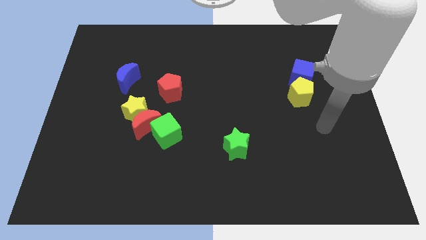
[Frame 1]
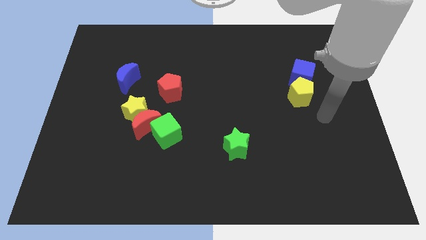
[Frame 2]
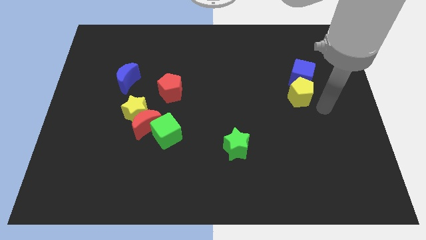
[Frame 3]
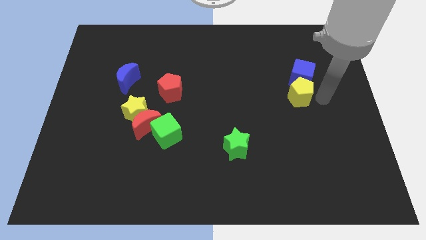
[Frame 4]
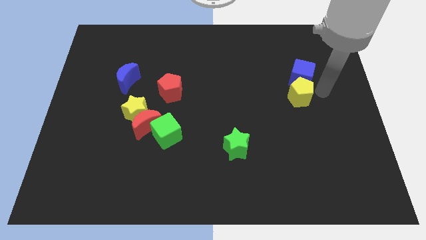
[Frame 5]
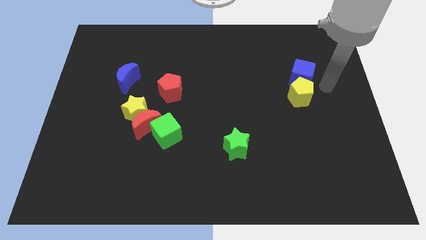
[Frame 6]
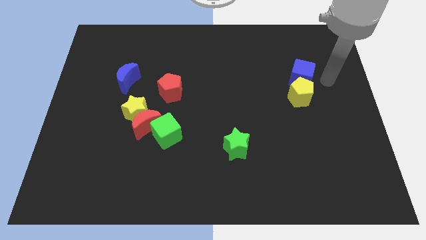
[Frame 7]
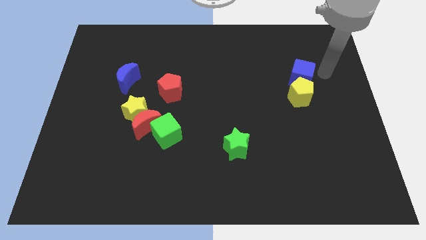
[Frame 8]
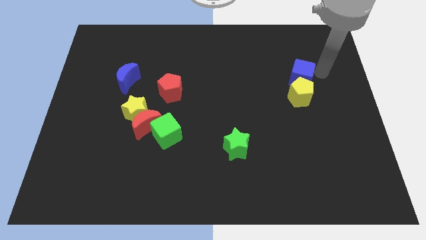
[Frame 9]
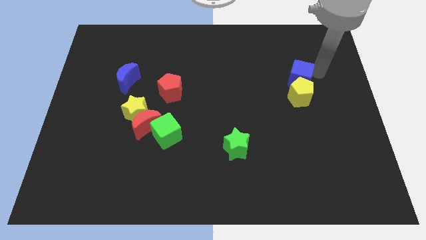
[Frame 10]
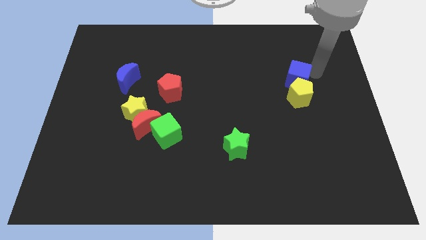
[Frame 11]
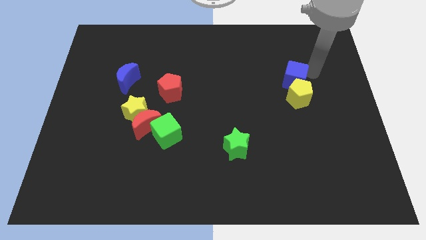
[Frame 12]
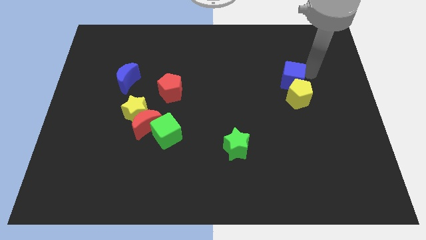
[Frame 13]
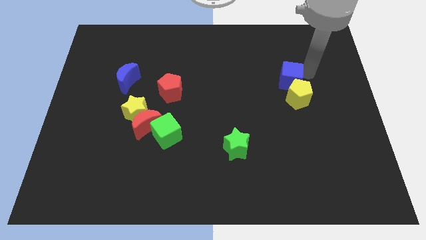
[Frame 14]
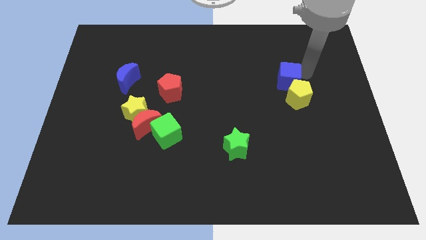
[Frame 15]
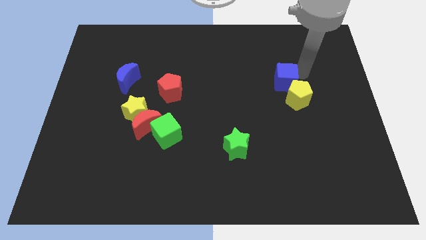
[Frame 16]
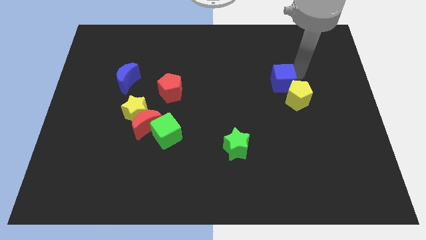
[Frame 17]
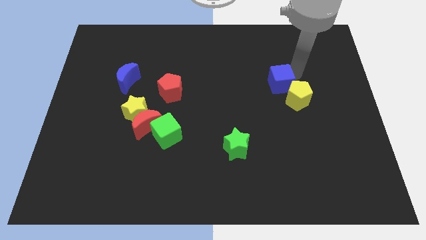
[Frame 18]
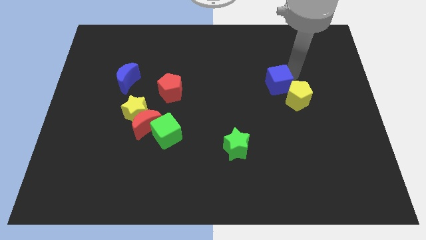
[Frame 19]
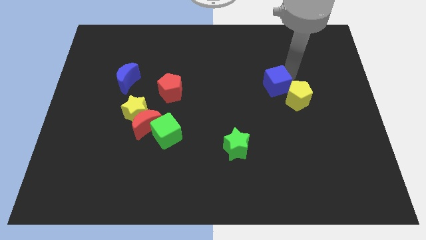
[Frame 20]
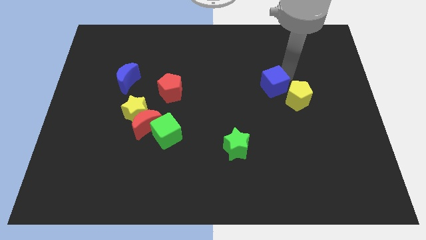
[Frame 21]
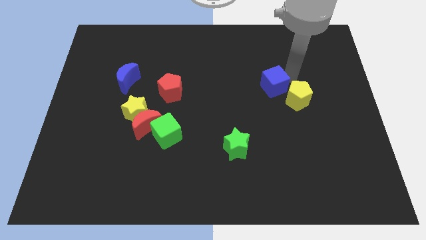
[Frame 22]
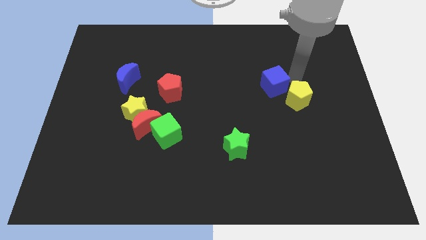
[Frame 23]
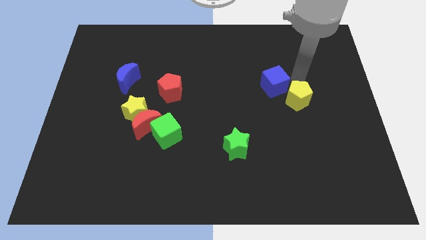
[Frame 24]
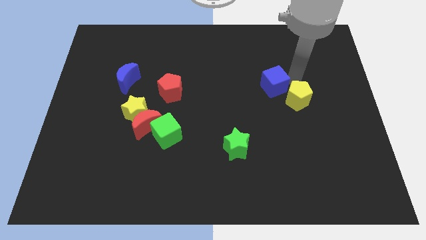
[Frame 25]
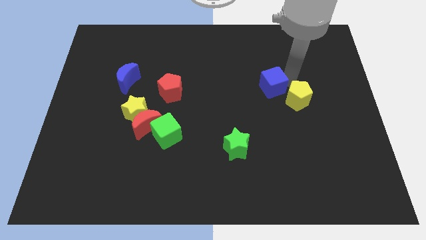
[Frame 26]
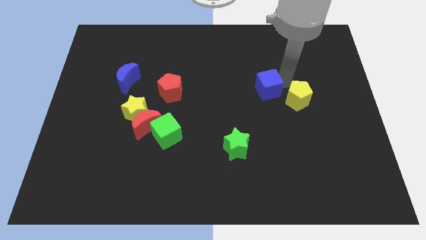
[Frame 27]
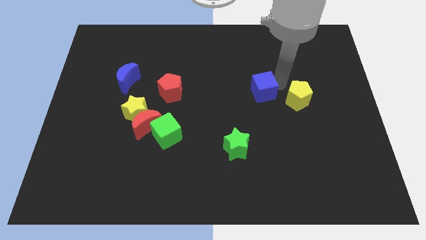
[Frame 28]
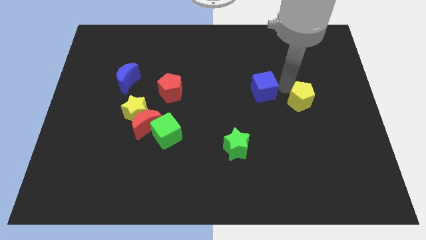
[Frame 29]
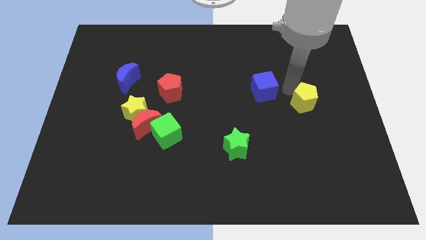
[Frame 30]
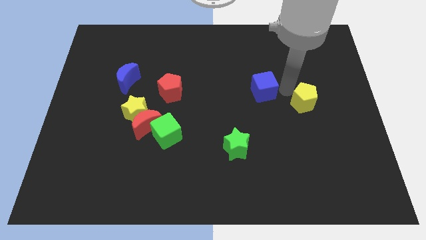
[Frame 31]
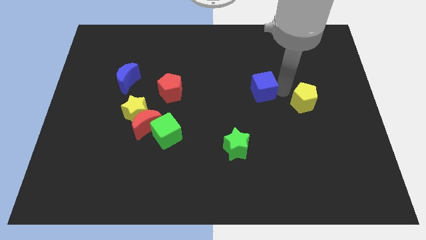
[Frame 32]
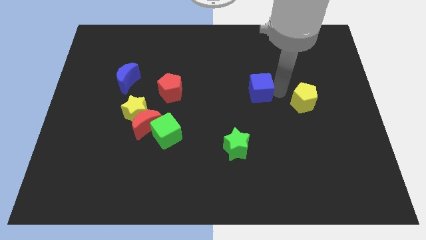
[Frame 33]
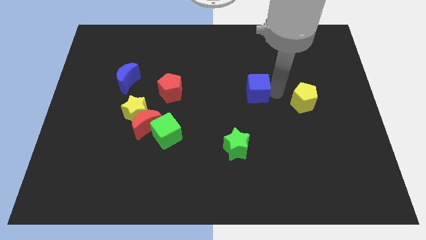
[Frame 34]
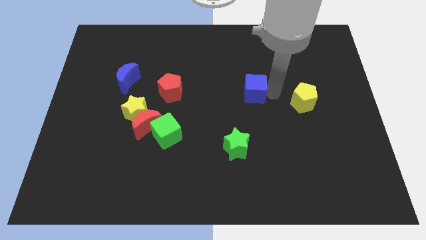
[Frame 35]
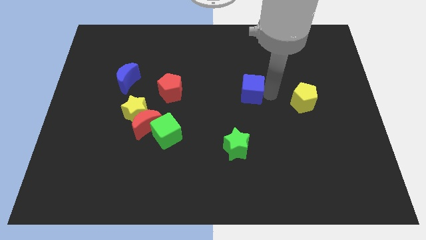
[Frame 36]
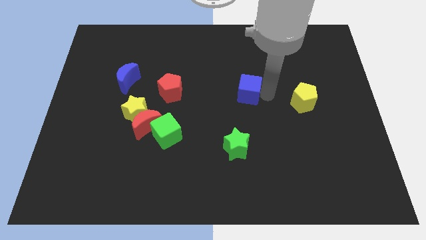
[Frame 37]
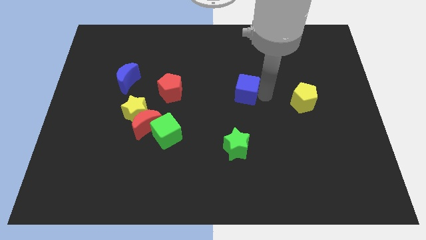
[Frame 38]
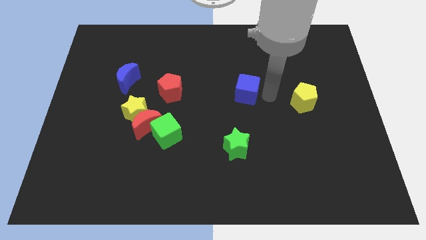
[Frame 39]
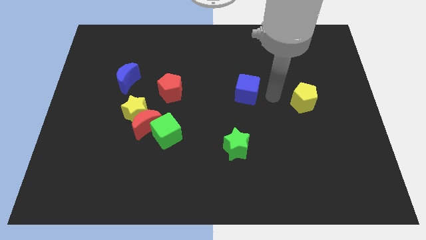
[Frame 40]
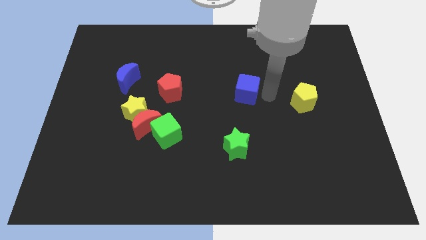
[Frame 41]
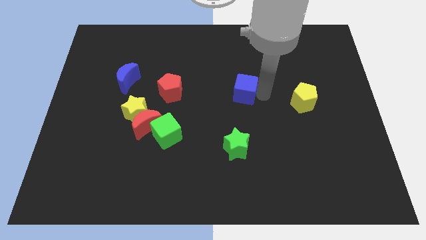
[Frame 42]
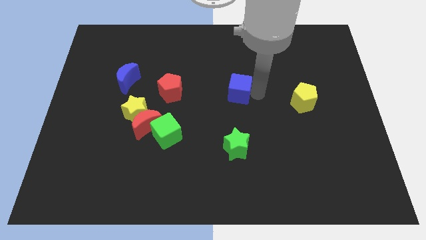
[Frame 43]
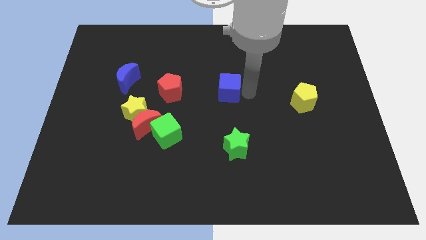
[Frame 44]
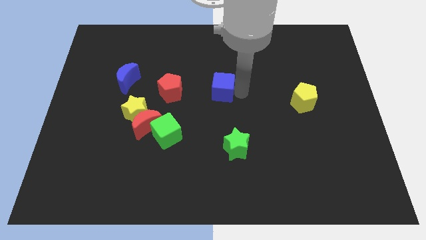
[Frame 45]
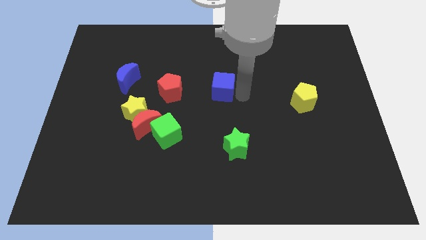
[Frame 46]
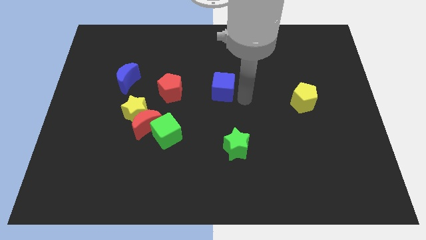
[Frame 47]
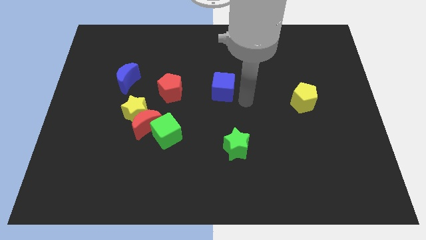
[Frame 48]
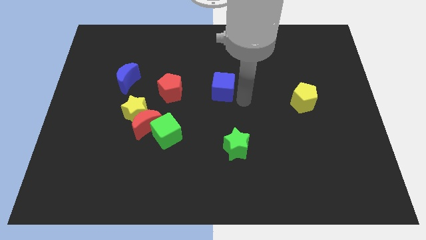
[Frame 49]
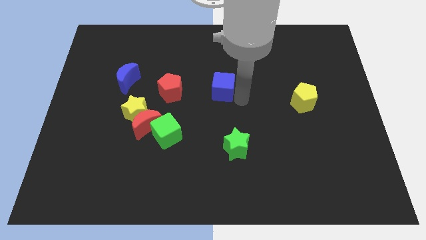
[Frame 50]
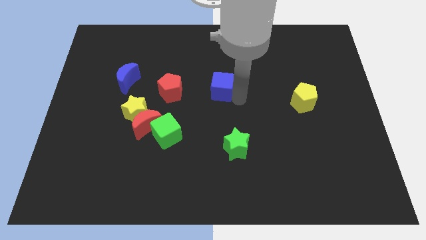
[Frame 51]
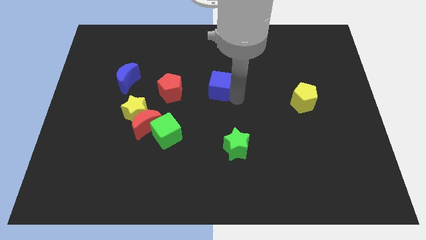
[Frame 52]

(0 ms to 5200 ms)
push the blue cube to the left

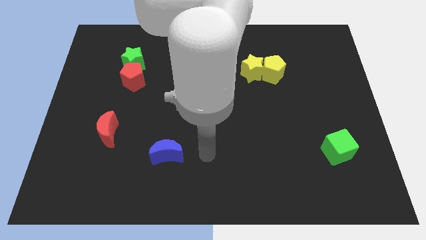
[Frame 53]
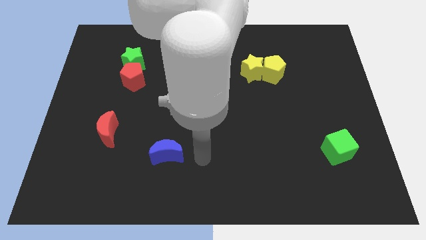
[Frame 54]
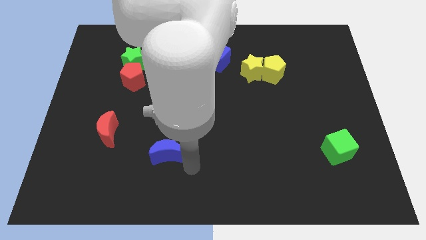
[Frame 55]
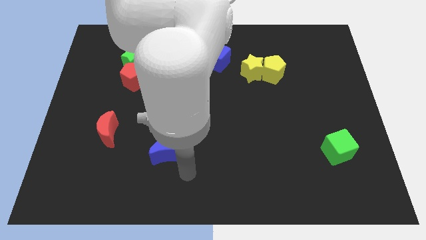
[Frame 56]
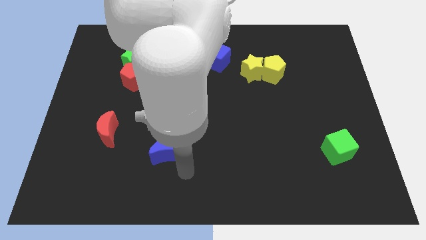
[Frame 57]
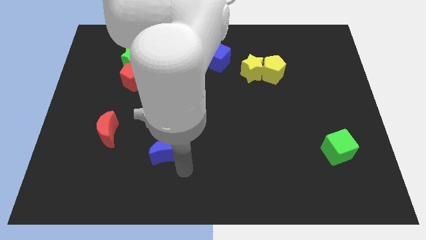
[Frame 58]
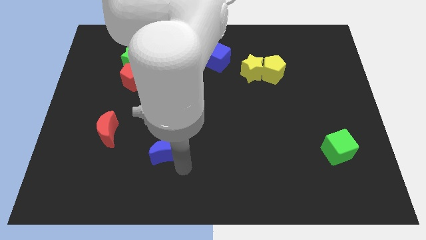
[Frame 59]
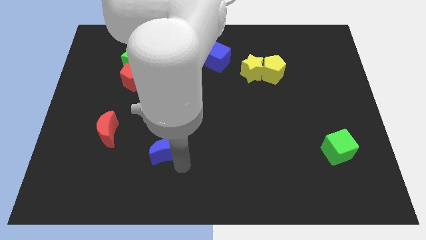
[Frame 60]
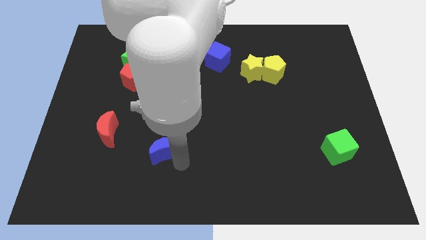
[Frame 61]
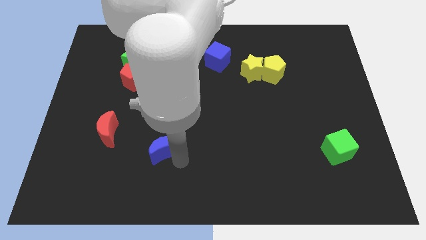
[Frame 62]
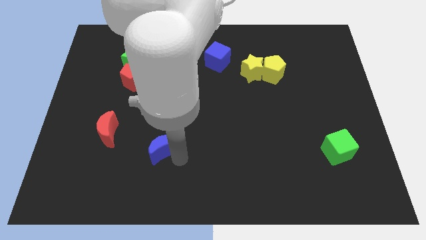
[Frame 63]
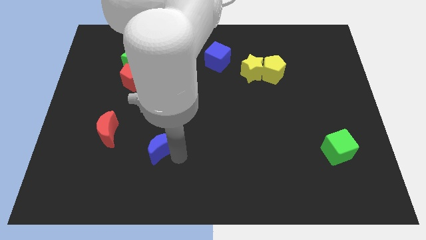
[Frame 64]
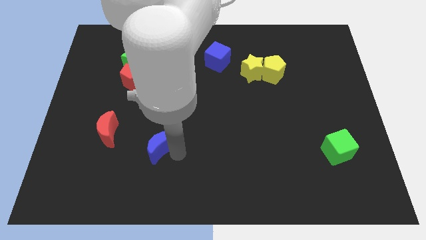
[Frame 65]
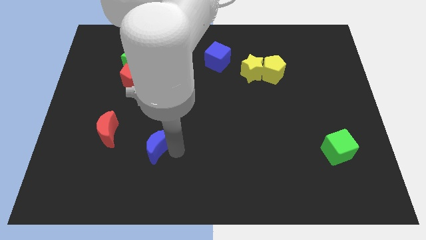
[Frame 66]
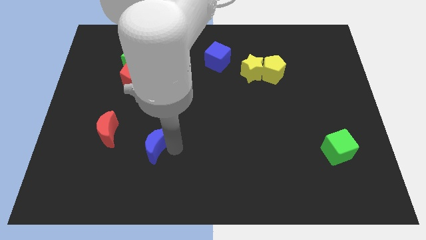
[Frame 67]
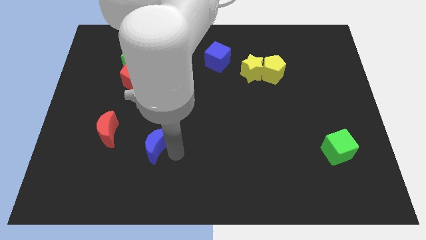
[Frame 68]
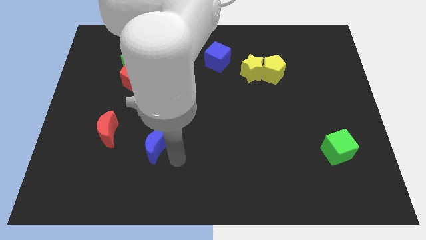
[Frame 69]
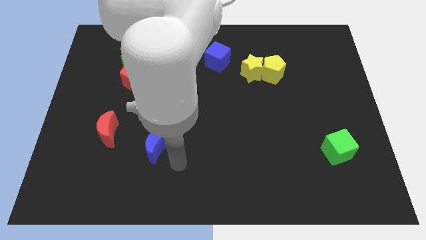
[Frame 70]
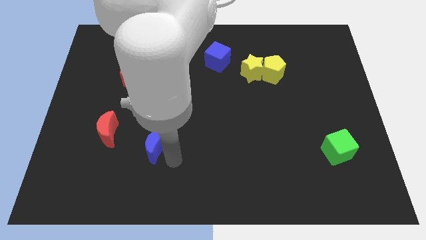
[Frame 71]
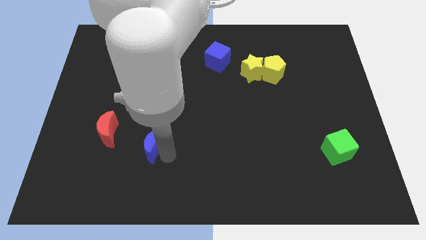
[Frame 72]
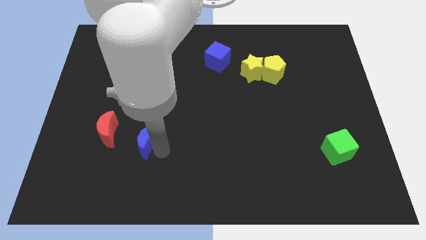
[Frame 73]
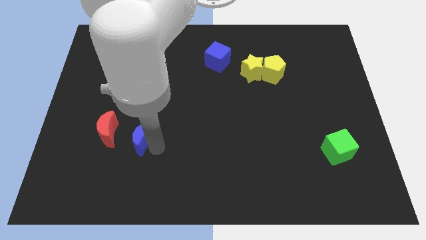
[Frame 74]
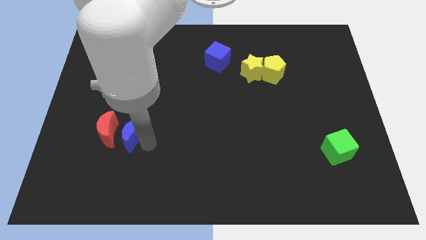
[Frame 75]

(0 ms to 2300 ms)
move the blue moon up and then left a little

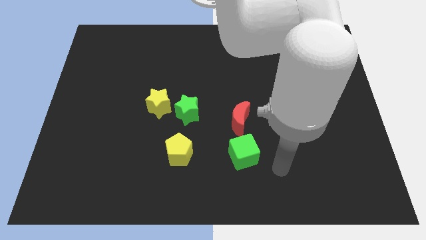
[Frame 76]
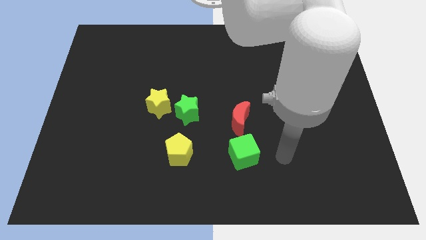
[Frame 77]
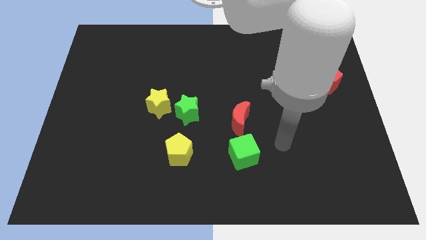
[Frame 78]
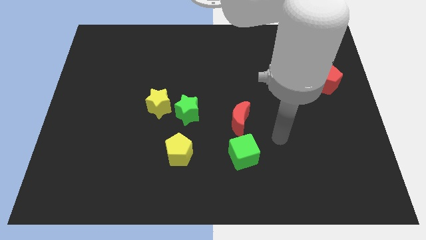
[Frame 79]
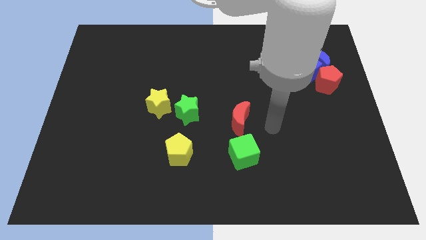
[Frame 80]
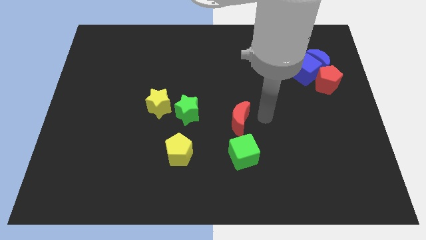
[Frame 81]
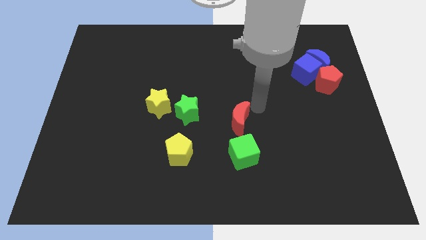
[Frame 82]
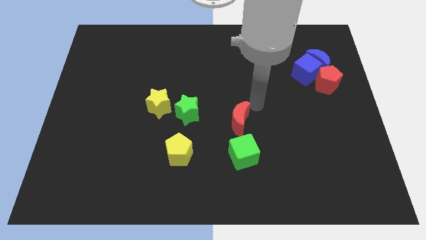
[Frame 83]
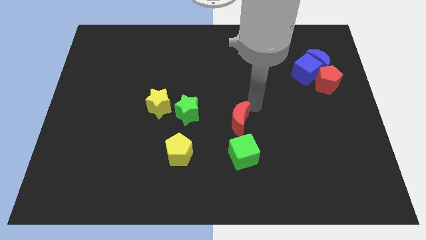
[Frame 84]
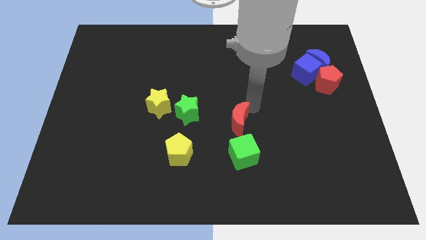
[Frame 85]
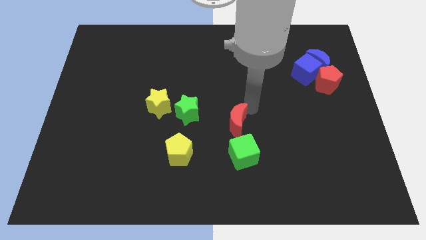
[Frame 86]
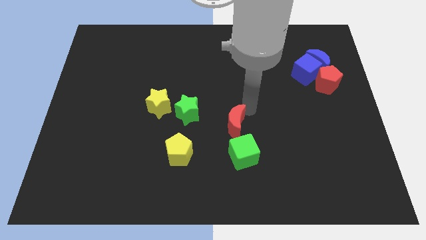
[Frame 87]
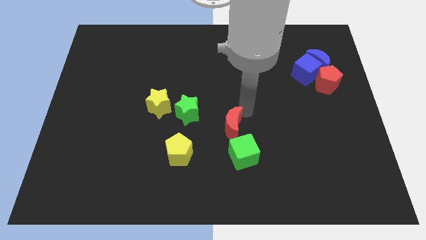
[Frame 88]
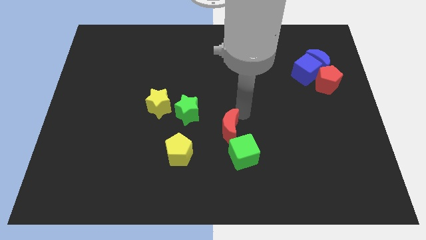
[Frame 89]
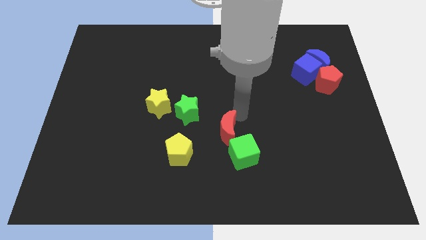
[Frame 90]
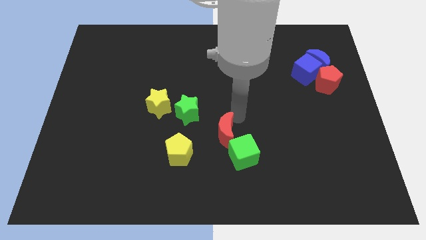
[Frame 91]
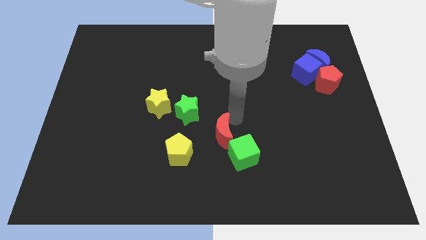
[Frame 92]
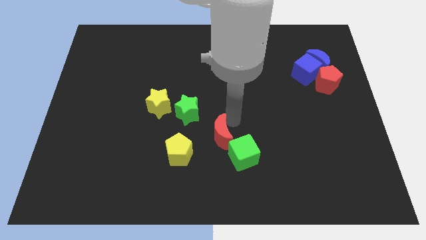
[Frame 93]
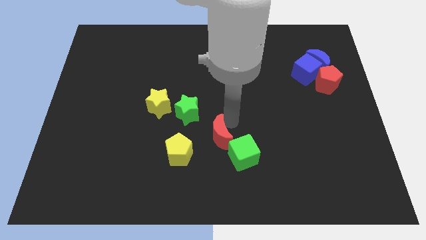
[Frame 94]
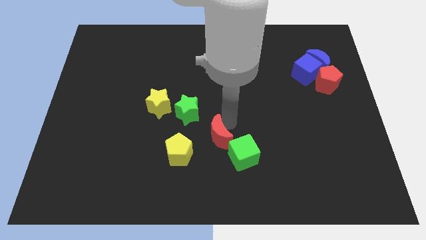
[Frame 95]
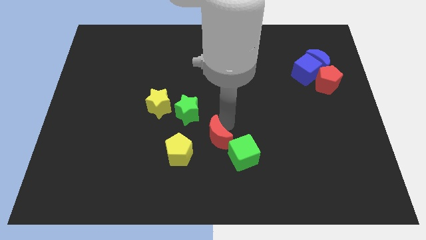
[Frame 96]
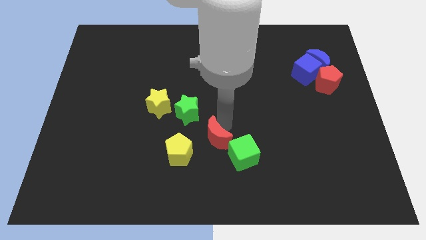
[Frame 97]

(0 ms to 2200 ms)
slightly push the red moon down and left diagonally
